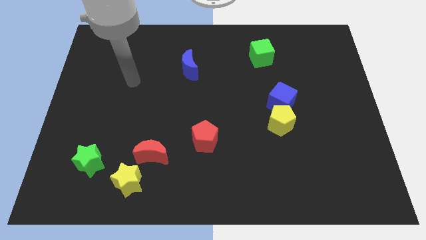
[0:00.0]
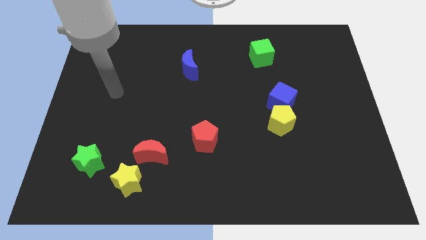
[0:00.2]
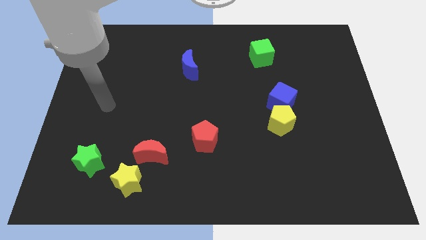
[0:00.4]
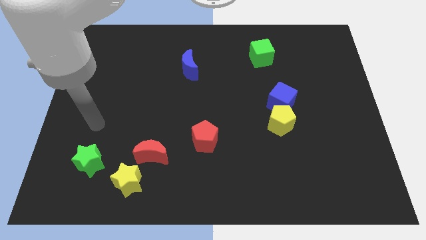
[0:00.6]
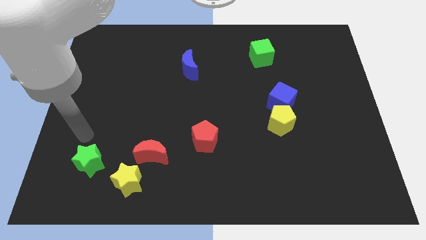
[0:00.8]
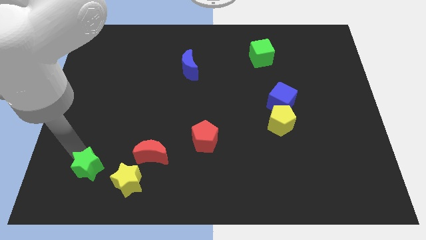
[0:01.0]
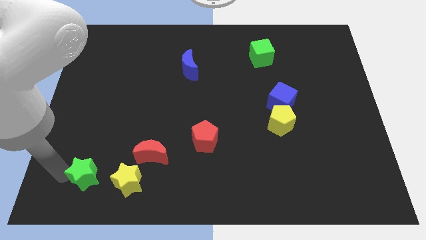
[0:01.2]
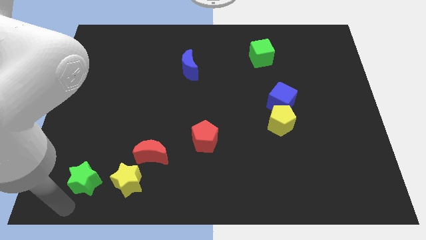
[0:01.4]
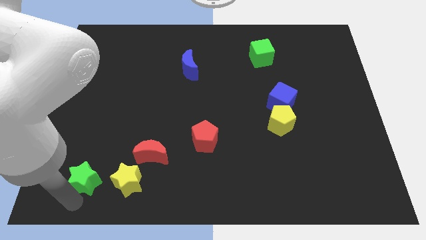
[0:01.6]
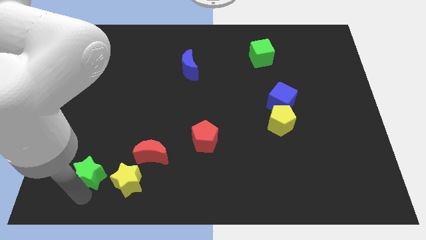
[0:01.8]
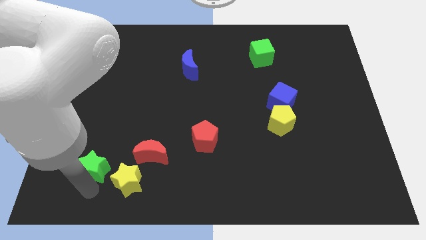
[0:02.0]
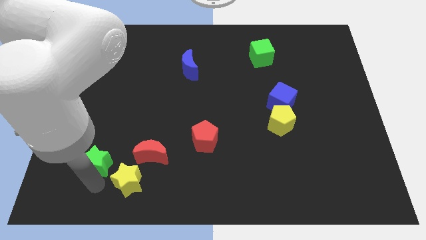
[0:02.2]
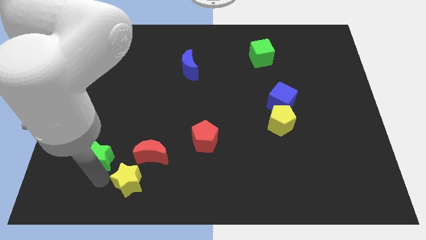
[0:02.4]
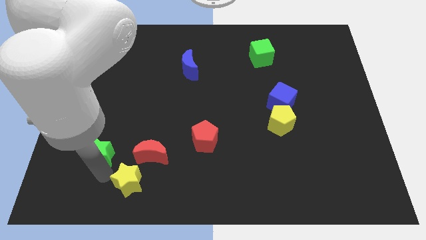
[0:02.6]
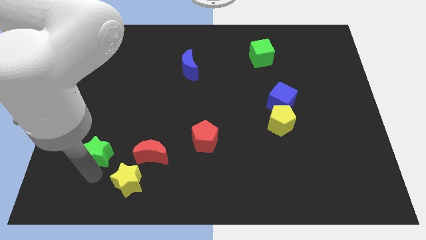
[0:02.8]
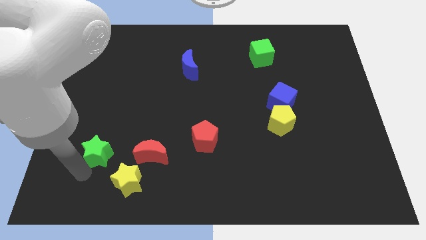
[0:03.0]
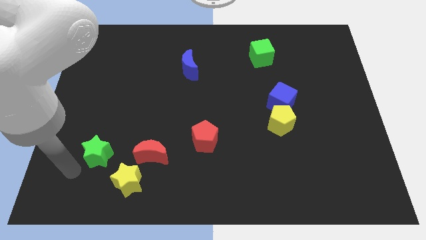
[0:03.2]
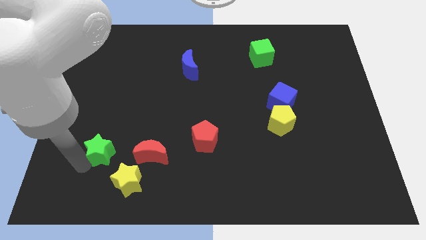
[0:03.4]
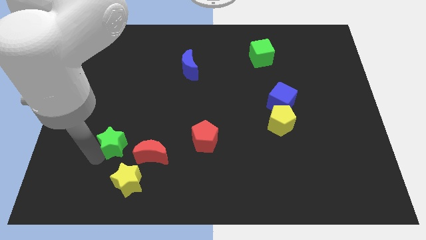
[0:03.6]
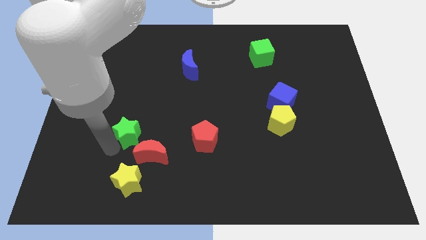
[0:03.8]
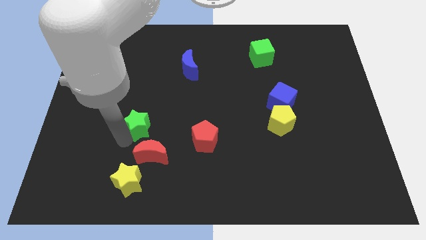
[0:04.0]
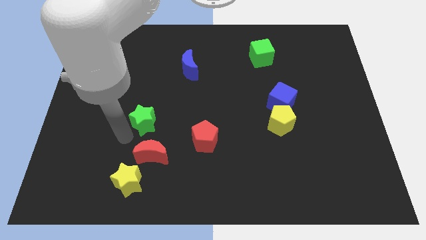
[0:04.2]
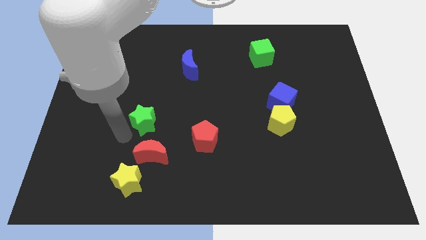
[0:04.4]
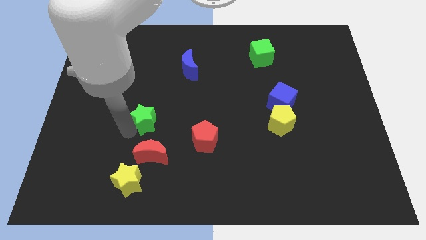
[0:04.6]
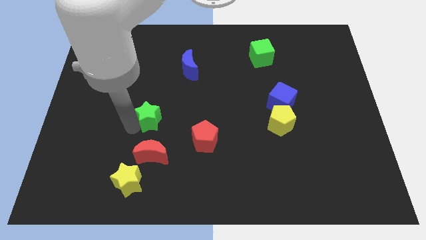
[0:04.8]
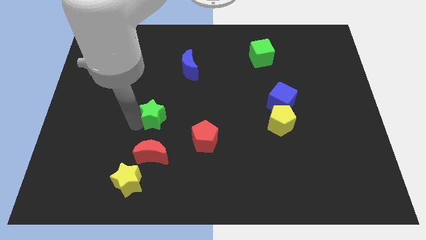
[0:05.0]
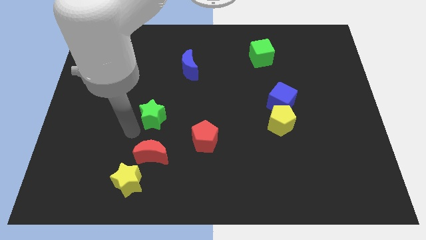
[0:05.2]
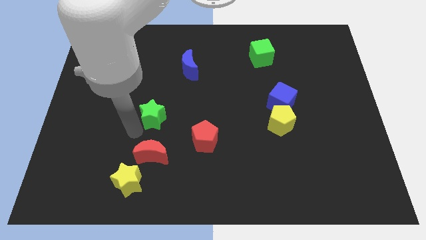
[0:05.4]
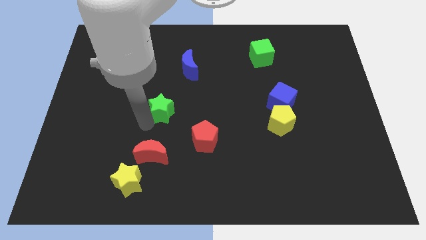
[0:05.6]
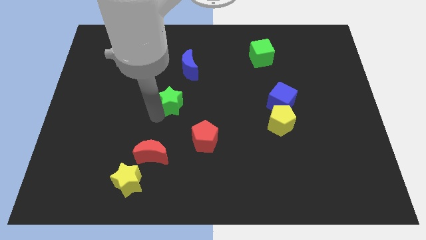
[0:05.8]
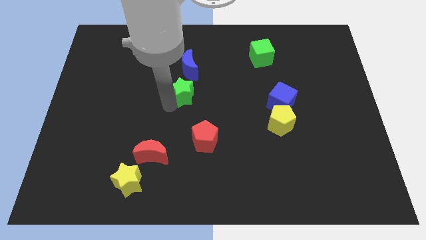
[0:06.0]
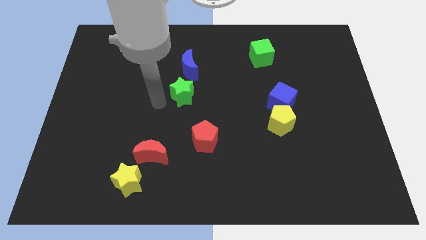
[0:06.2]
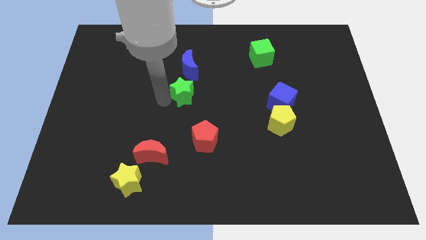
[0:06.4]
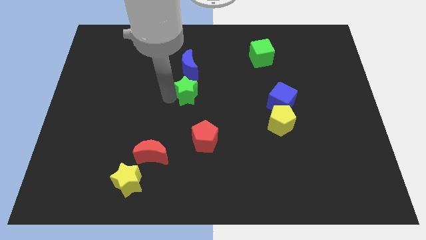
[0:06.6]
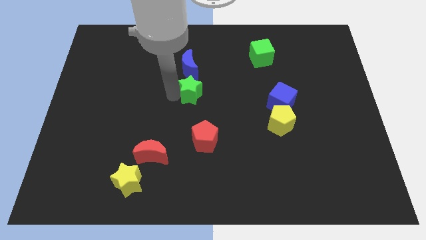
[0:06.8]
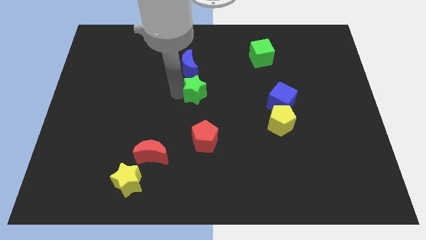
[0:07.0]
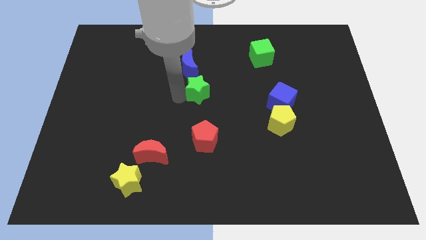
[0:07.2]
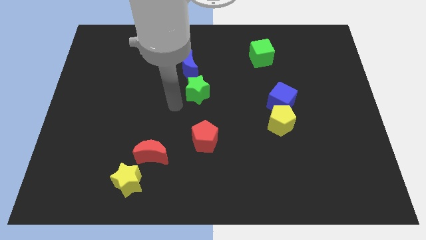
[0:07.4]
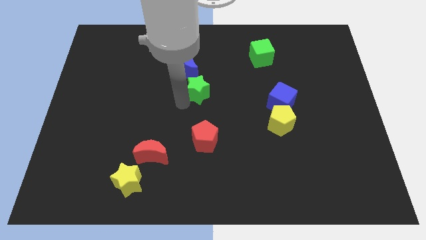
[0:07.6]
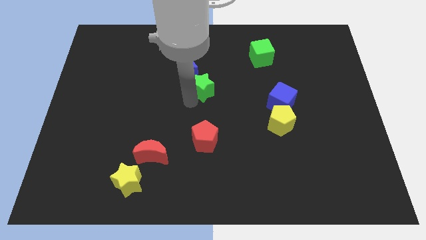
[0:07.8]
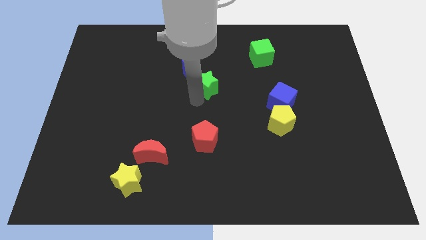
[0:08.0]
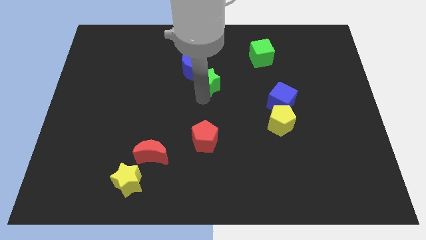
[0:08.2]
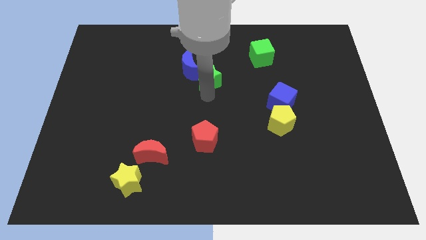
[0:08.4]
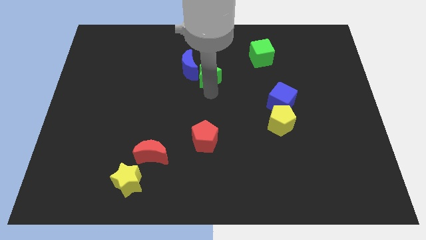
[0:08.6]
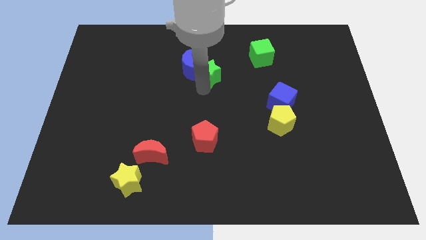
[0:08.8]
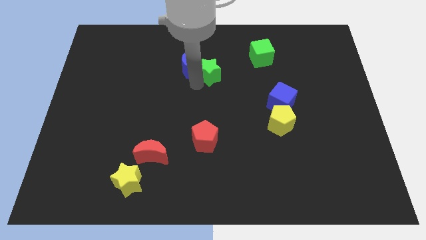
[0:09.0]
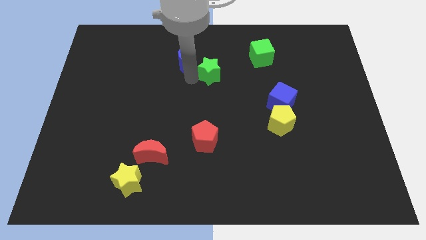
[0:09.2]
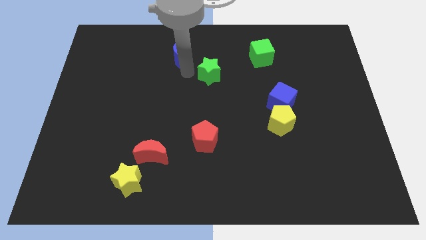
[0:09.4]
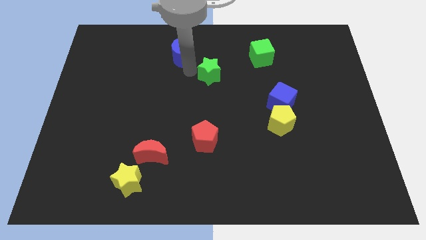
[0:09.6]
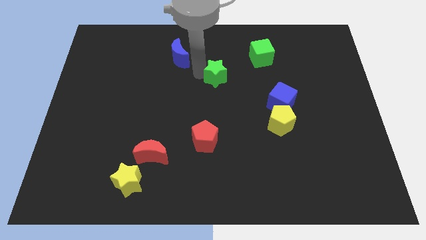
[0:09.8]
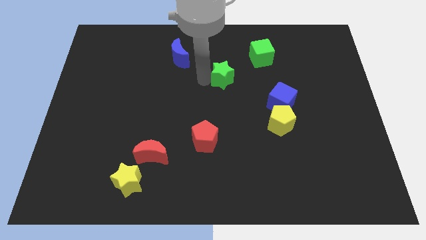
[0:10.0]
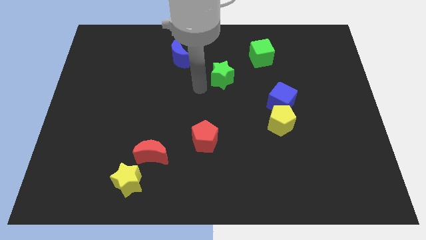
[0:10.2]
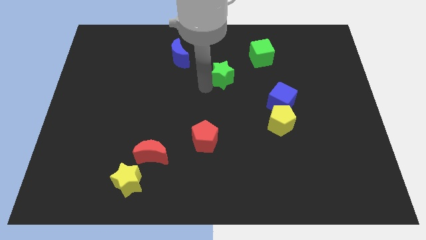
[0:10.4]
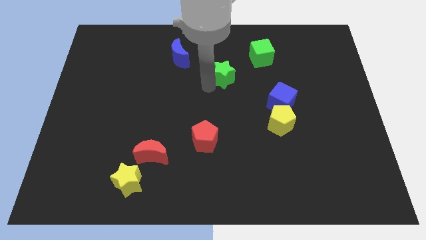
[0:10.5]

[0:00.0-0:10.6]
slide the green star diagonally down and to the left of the green cube

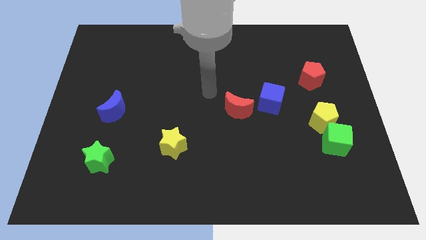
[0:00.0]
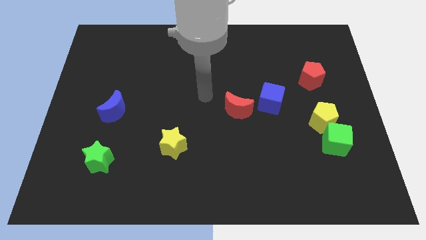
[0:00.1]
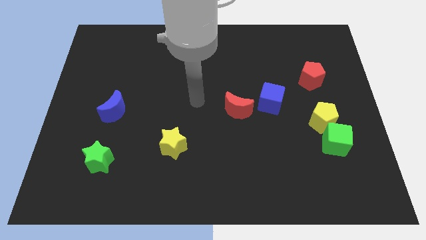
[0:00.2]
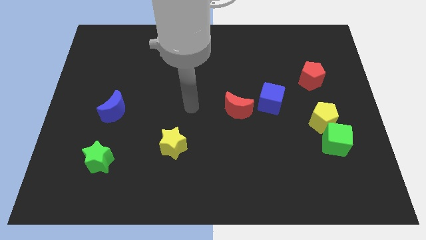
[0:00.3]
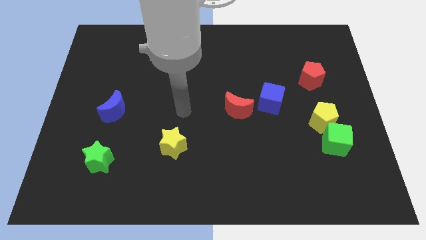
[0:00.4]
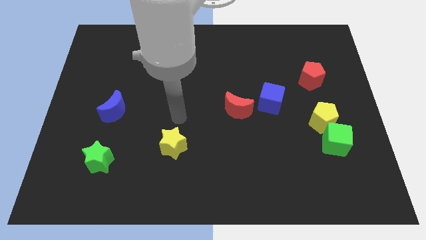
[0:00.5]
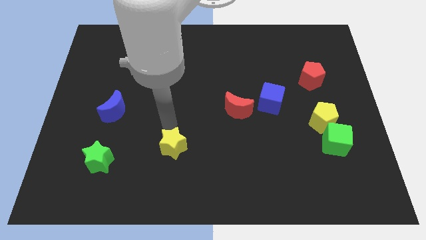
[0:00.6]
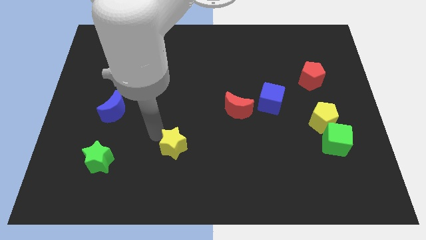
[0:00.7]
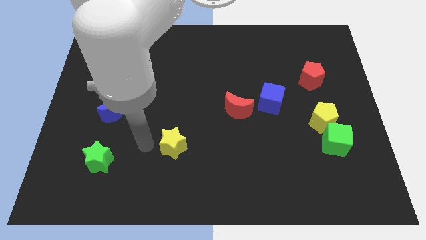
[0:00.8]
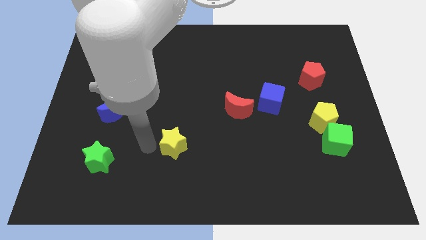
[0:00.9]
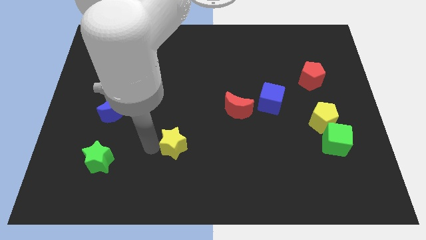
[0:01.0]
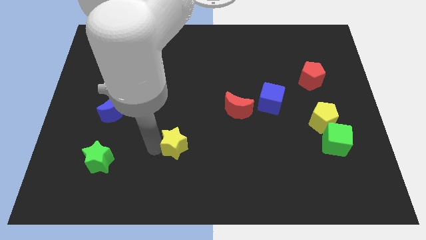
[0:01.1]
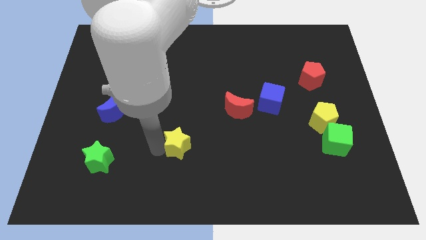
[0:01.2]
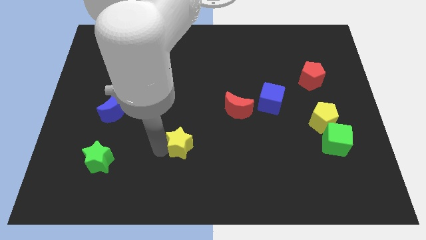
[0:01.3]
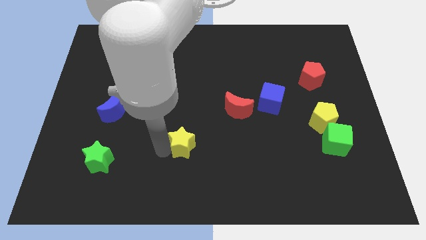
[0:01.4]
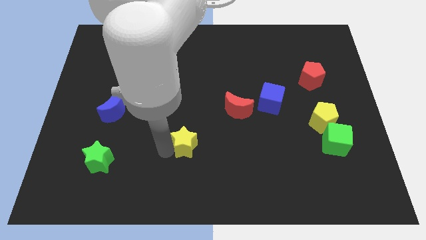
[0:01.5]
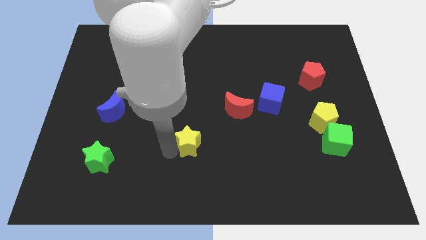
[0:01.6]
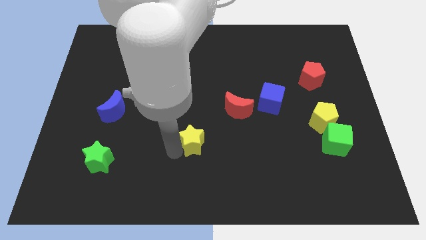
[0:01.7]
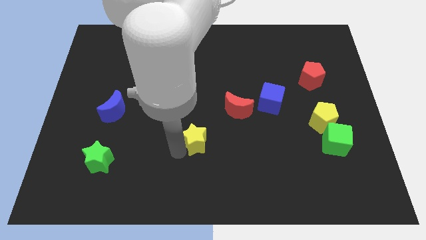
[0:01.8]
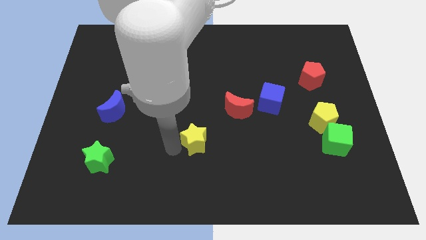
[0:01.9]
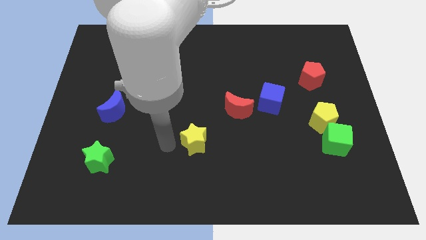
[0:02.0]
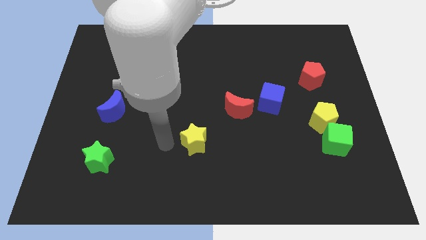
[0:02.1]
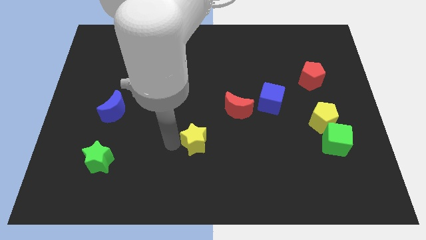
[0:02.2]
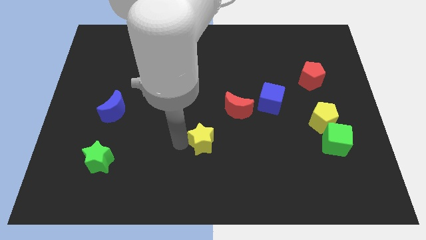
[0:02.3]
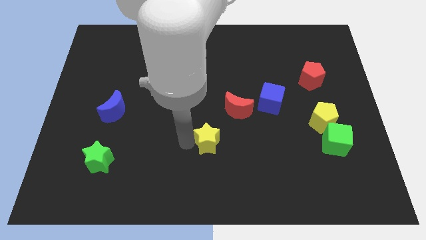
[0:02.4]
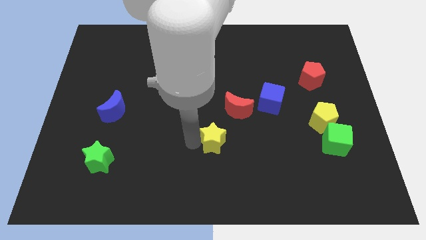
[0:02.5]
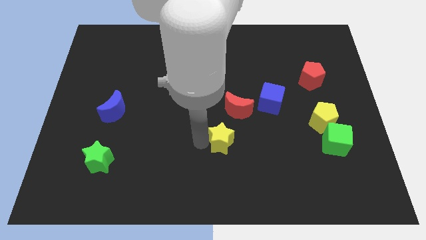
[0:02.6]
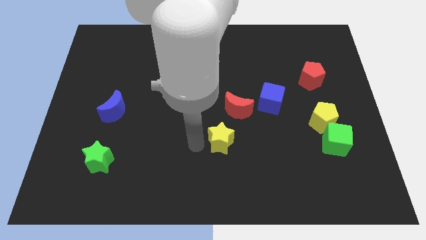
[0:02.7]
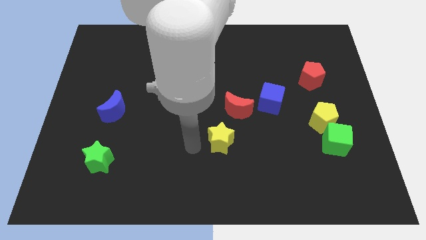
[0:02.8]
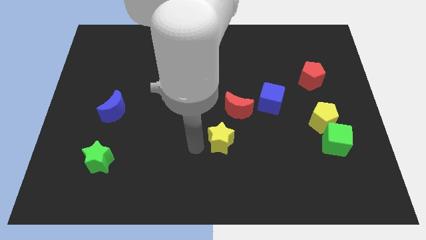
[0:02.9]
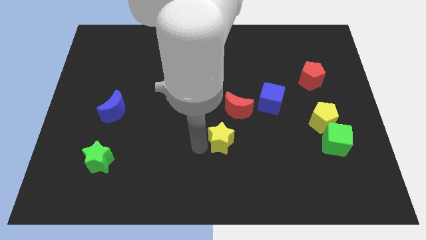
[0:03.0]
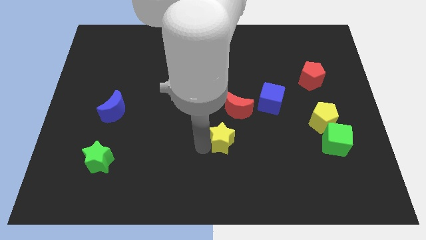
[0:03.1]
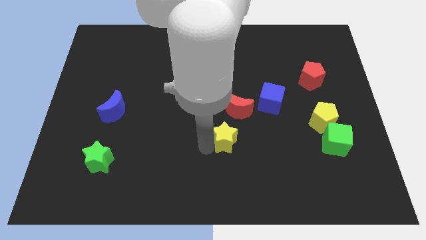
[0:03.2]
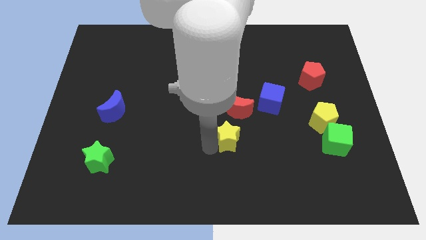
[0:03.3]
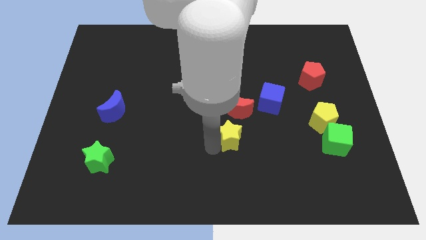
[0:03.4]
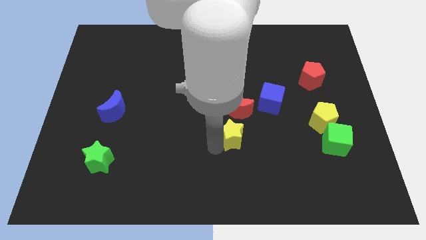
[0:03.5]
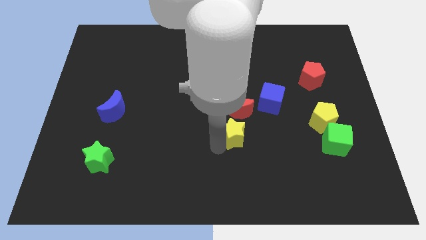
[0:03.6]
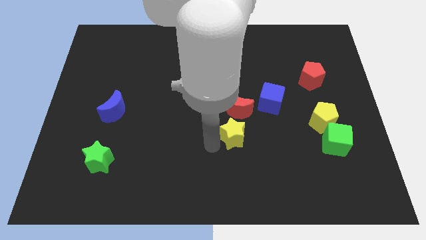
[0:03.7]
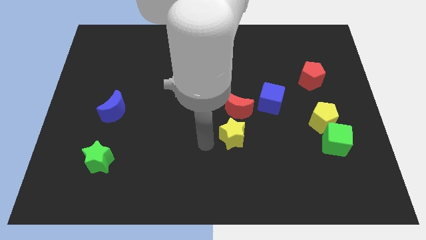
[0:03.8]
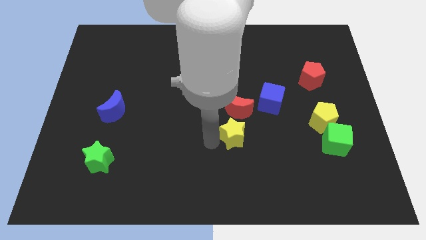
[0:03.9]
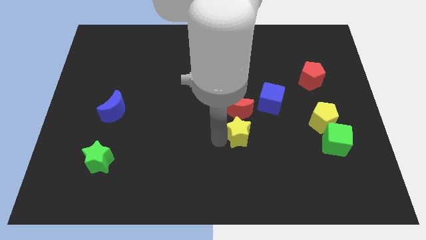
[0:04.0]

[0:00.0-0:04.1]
push the yellow star diagonally down and to the right of the red moon
